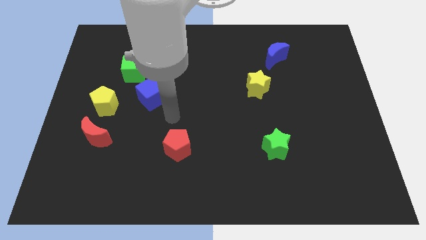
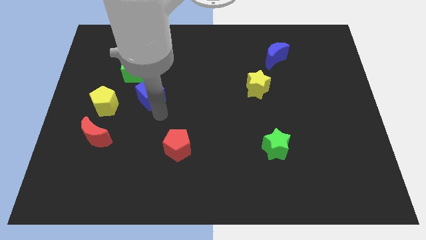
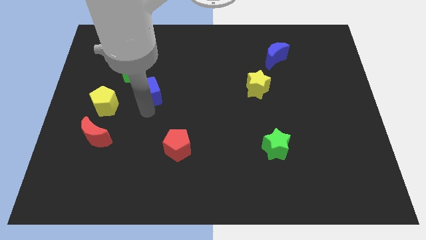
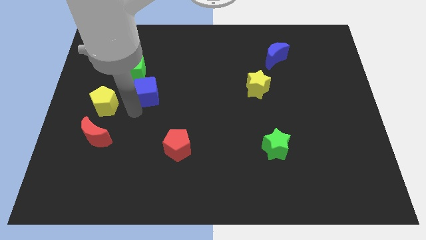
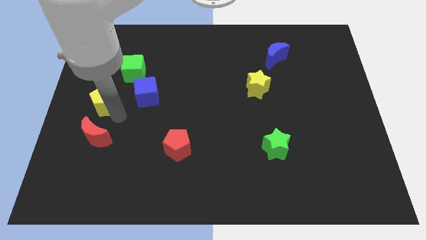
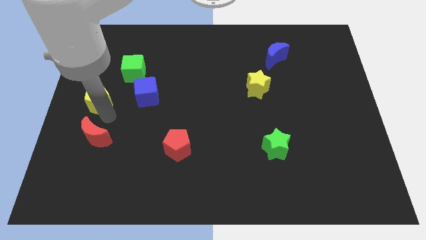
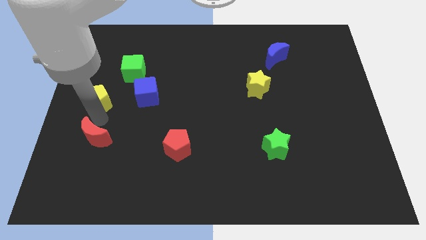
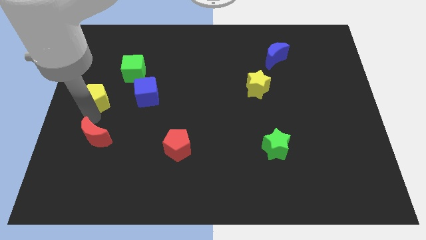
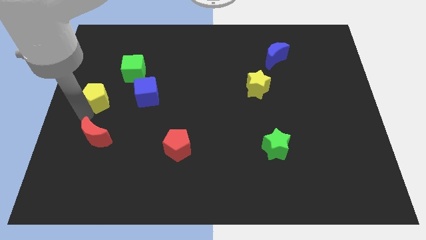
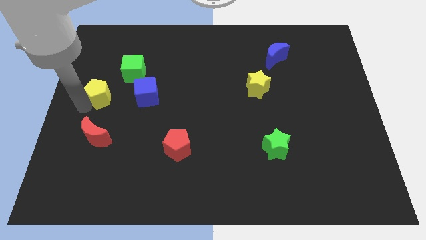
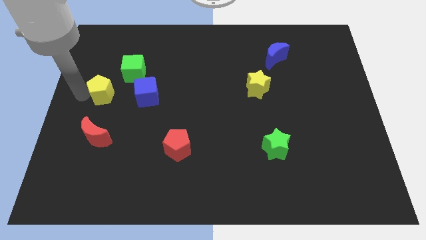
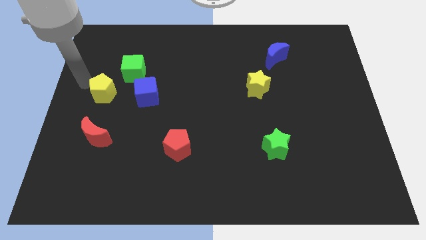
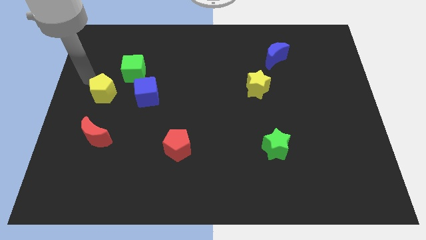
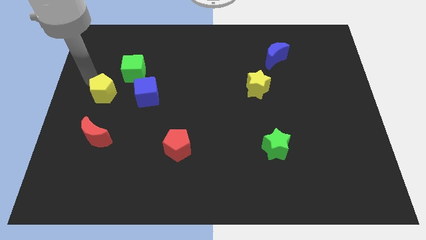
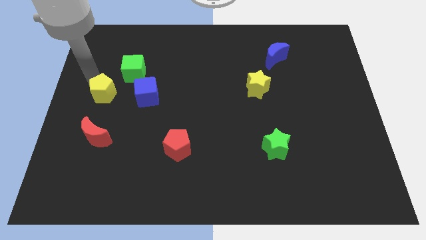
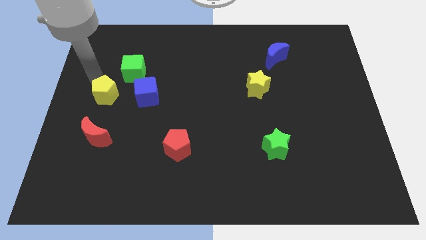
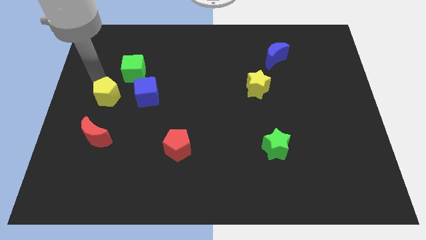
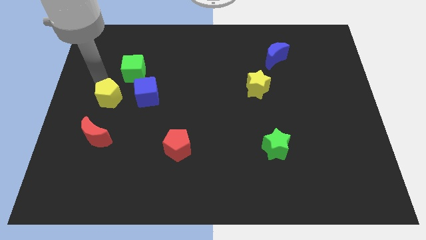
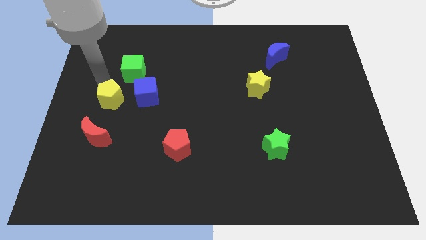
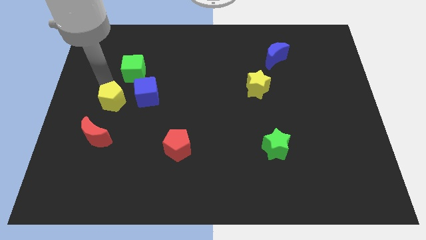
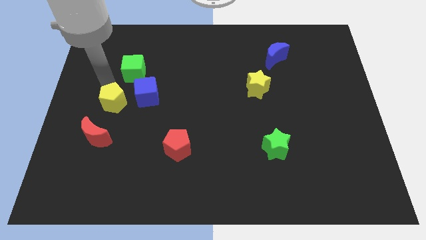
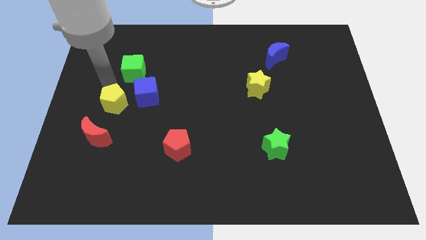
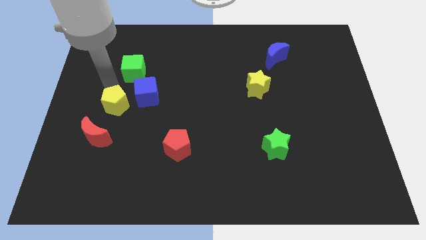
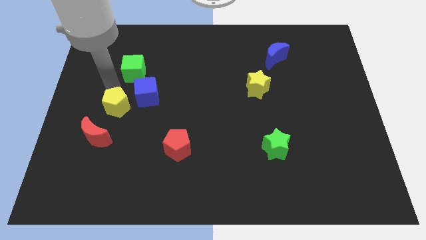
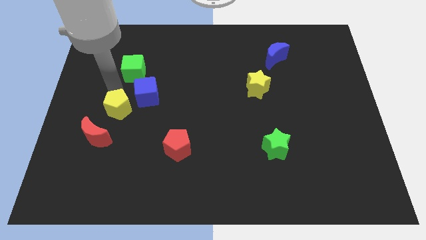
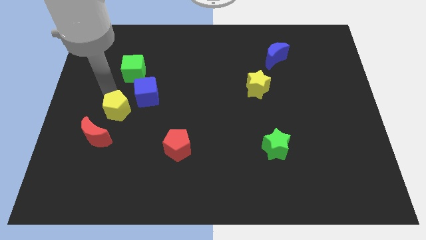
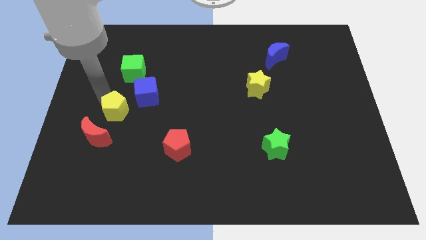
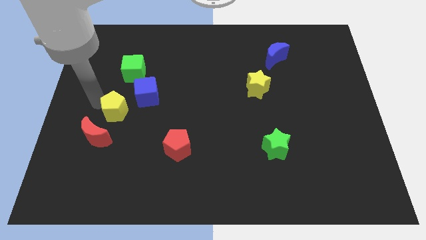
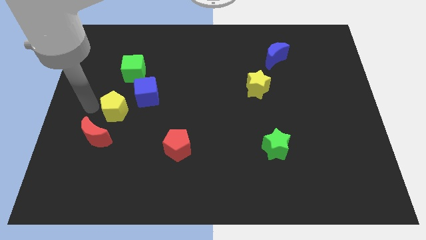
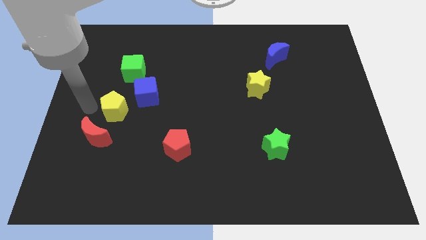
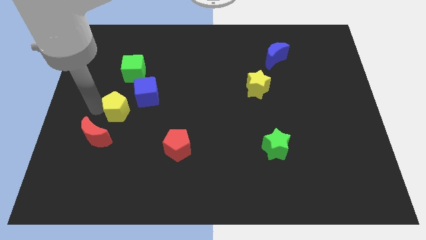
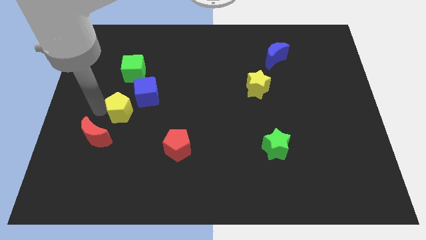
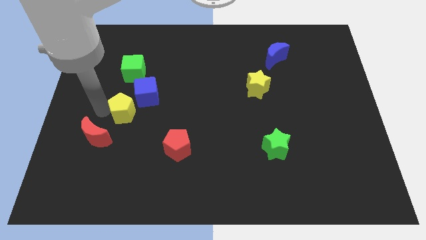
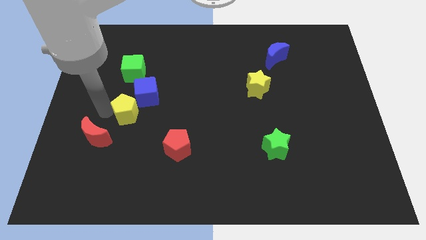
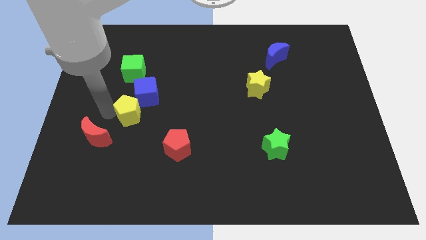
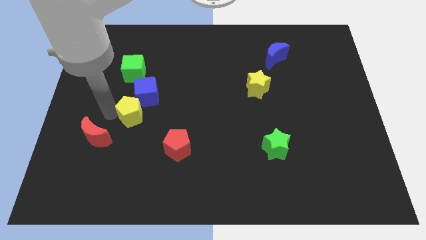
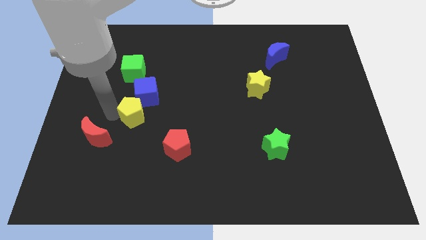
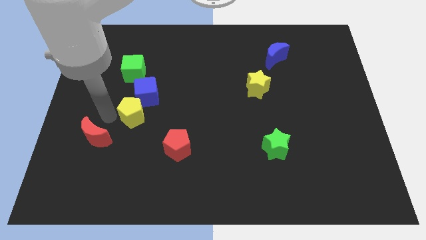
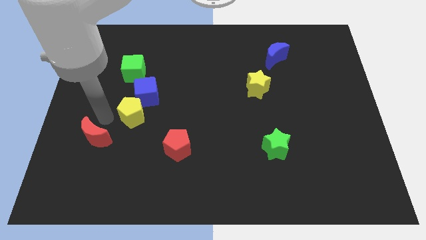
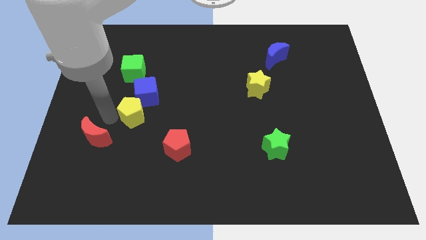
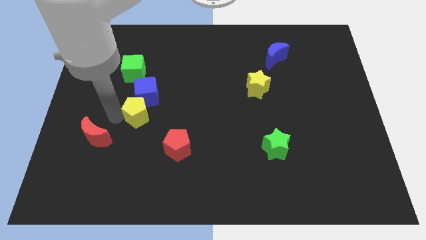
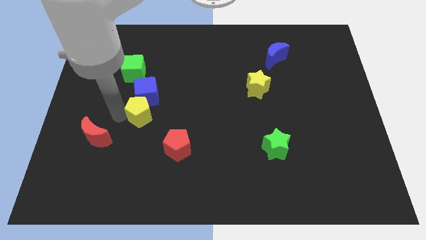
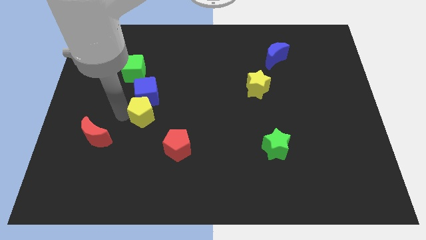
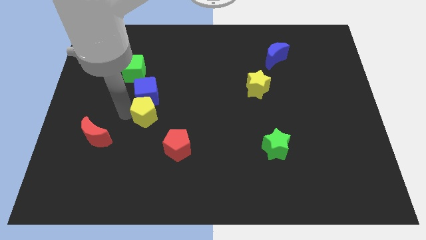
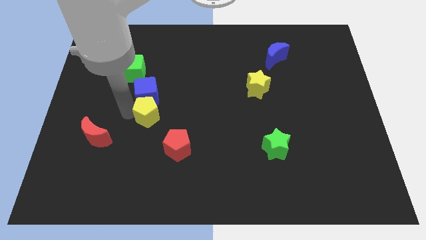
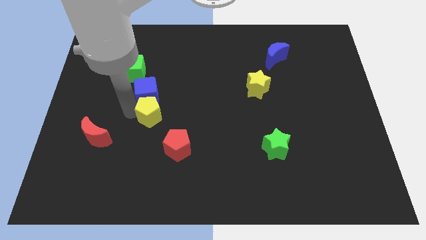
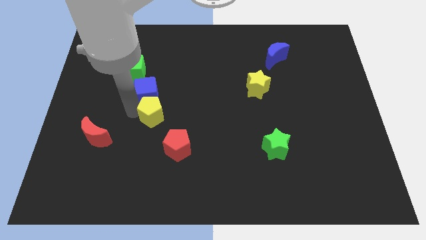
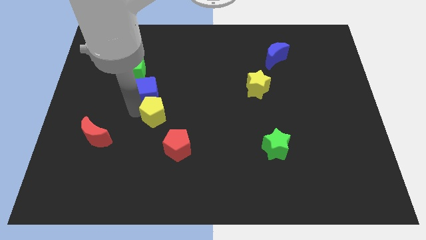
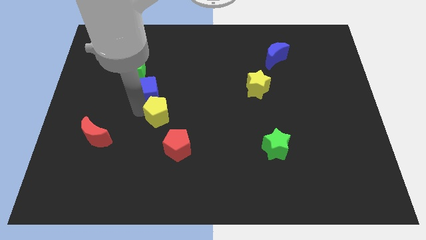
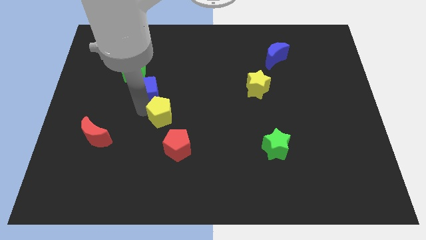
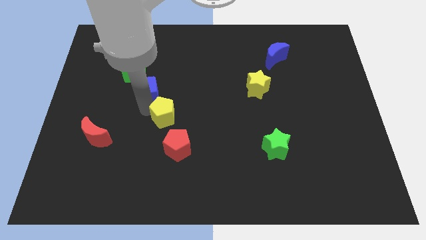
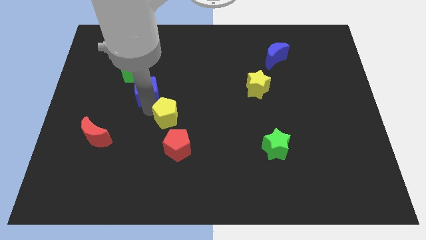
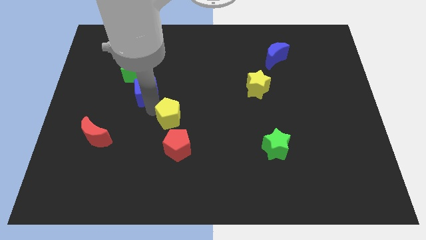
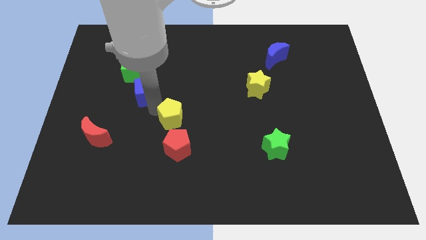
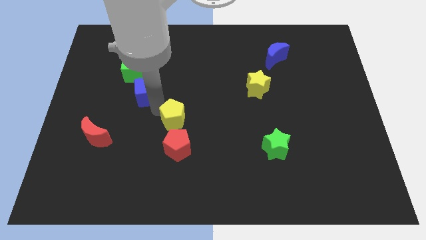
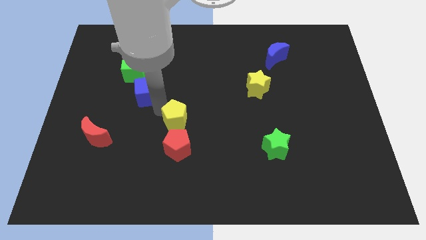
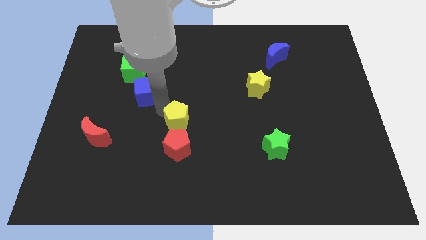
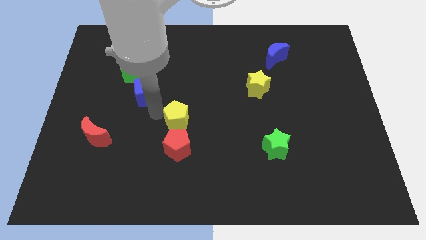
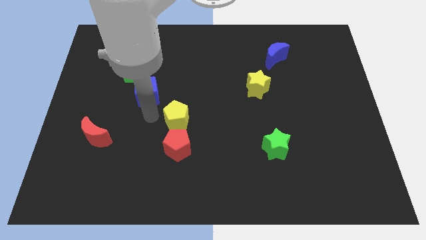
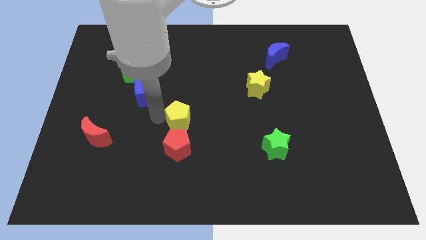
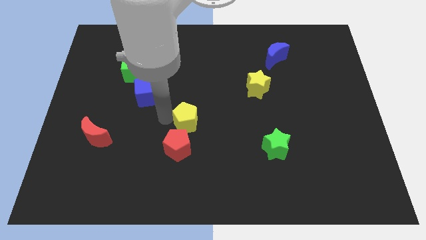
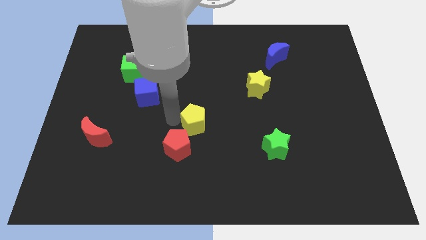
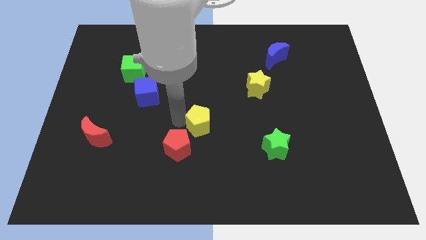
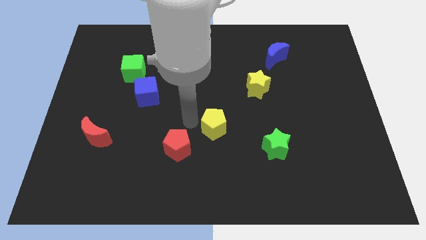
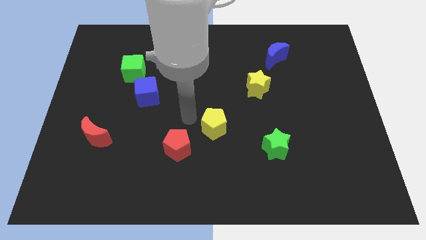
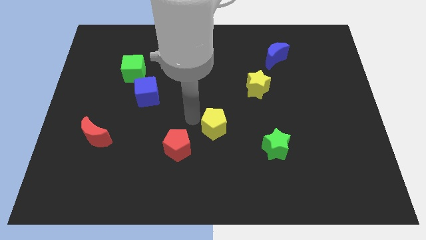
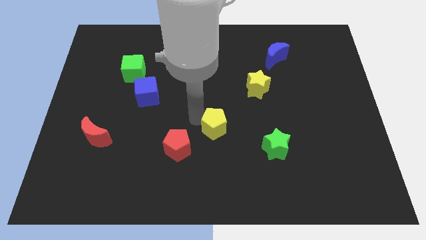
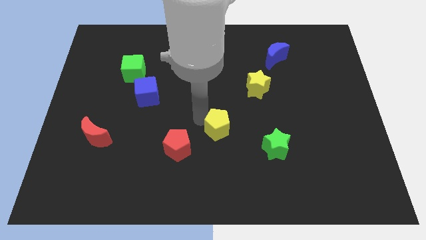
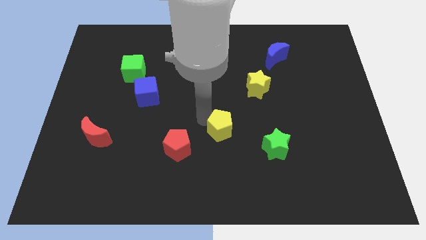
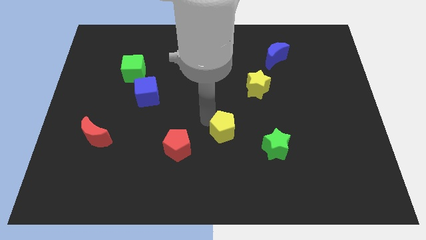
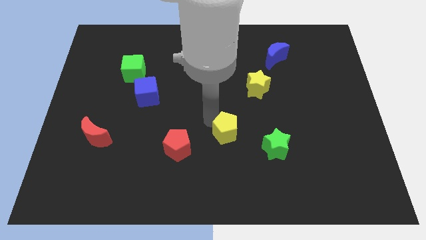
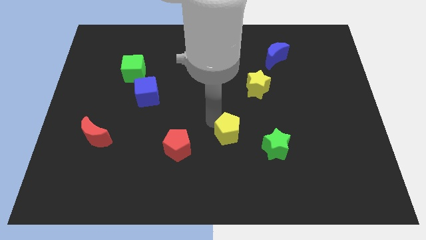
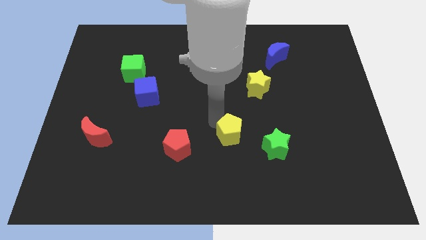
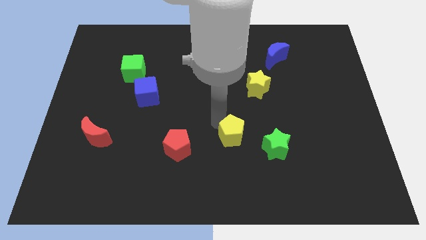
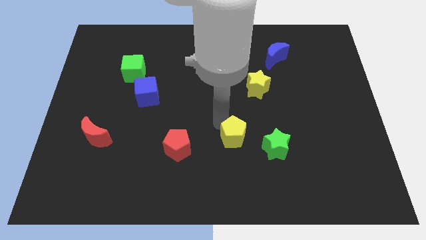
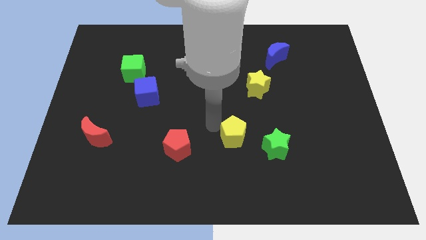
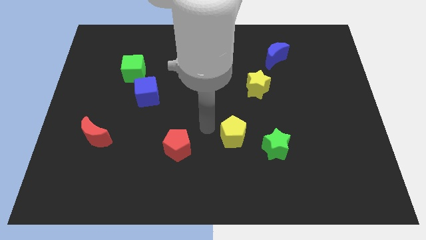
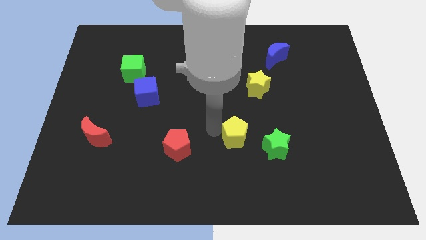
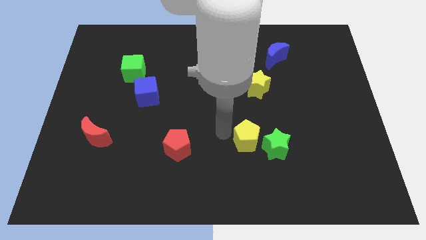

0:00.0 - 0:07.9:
slide the yellow pentagon close to the green star
